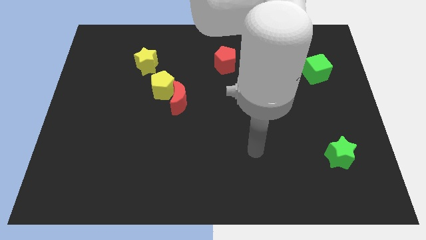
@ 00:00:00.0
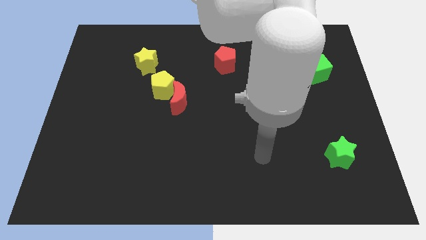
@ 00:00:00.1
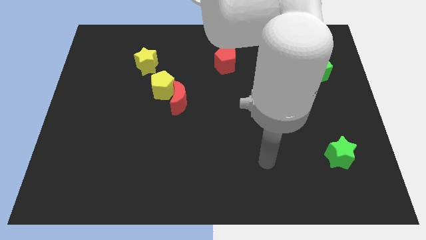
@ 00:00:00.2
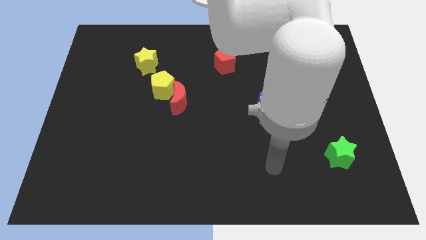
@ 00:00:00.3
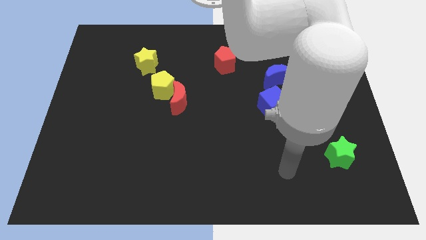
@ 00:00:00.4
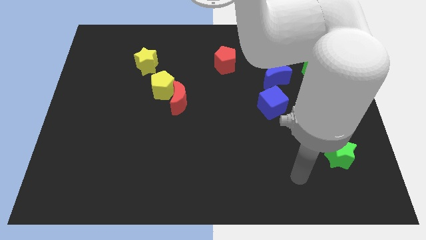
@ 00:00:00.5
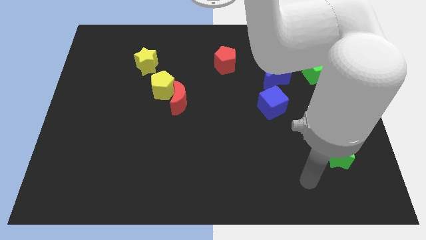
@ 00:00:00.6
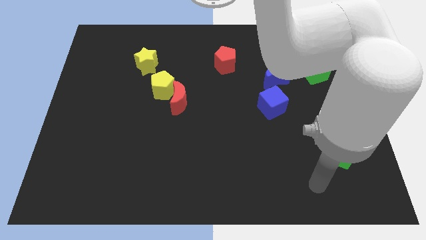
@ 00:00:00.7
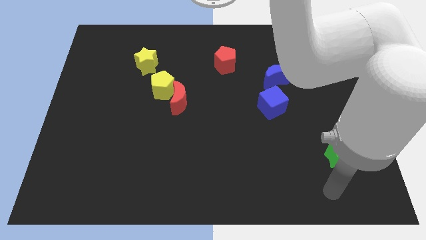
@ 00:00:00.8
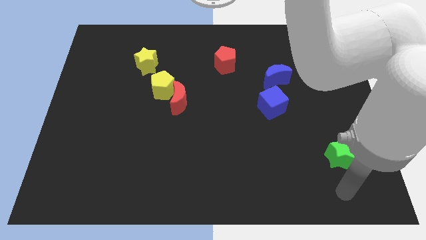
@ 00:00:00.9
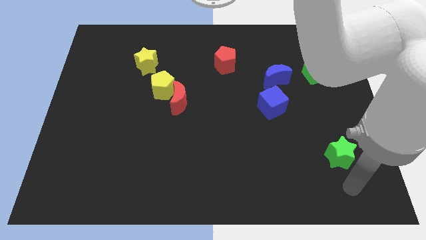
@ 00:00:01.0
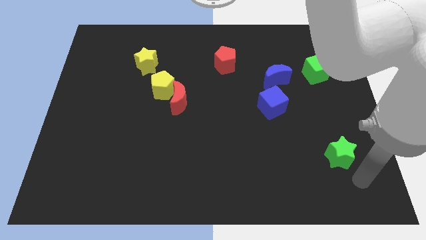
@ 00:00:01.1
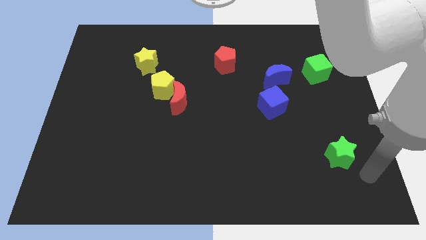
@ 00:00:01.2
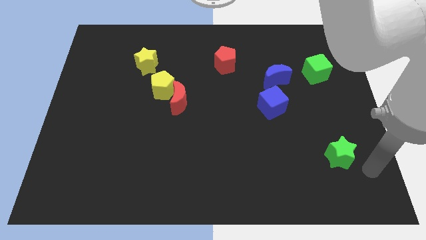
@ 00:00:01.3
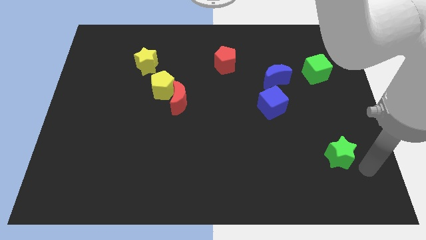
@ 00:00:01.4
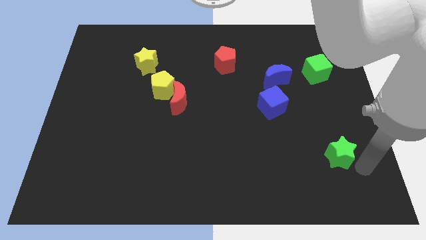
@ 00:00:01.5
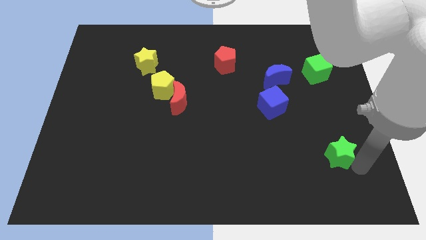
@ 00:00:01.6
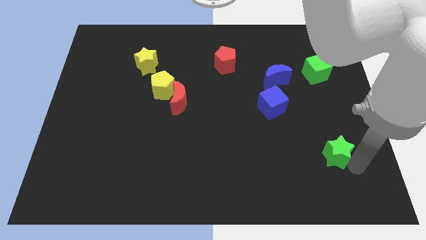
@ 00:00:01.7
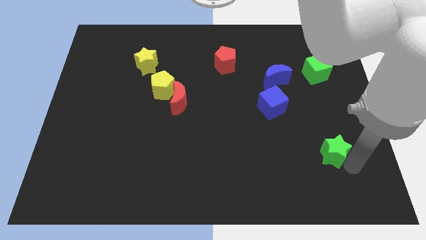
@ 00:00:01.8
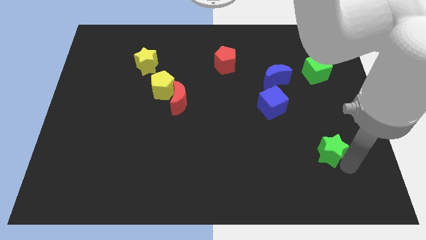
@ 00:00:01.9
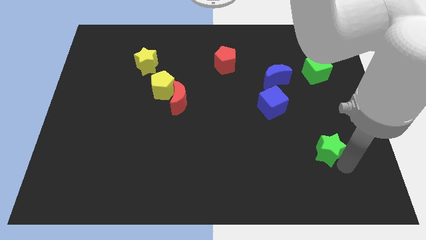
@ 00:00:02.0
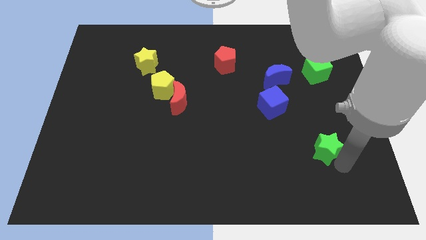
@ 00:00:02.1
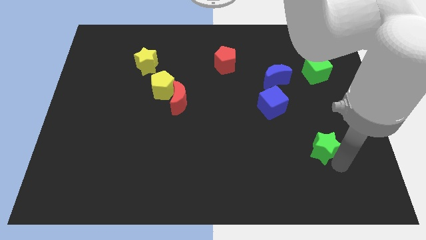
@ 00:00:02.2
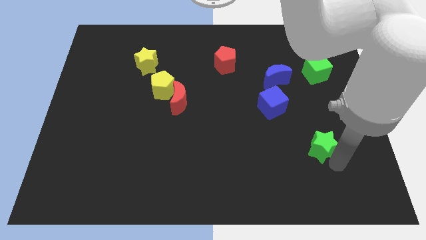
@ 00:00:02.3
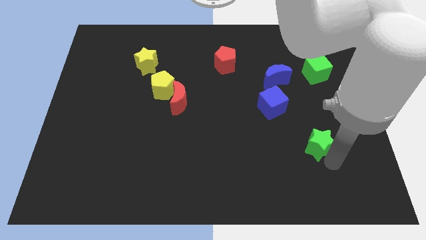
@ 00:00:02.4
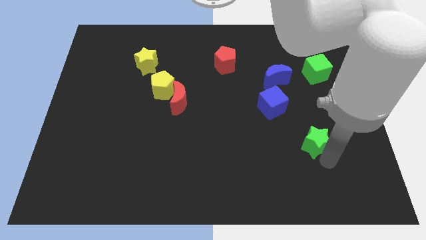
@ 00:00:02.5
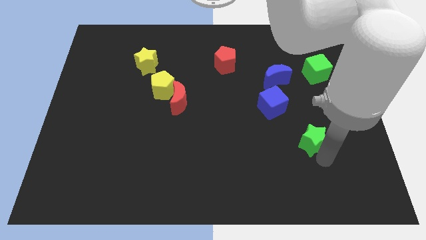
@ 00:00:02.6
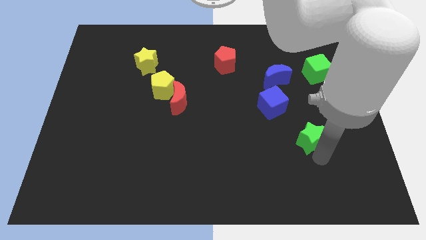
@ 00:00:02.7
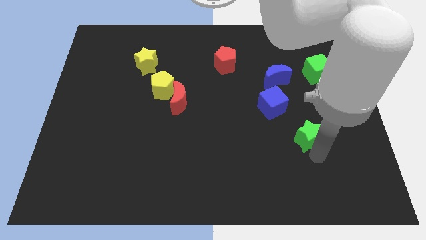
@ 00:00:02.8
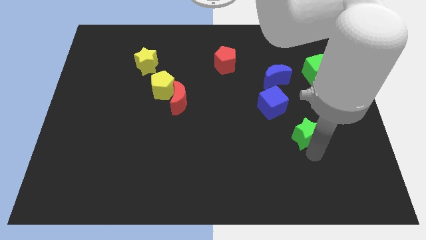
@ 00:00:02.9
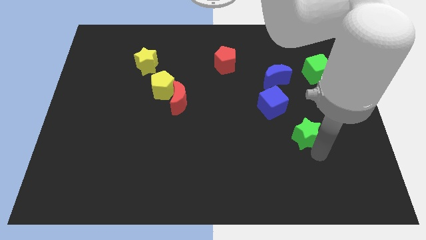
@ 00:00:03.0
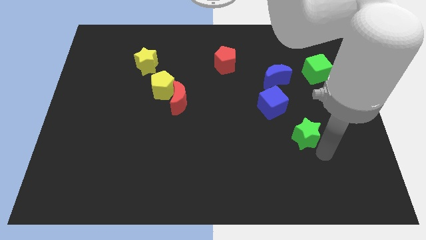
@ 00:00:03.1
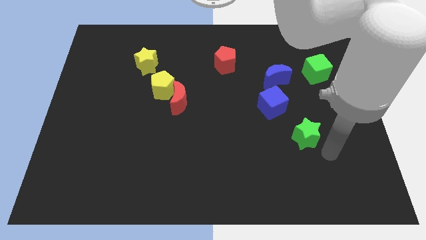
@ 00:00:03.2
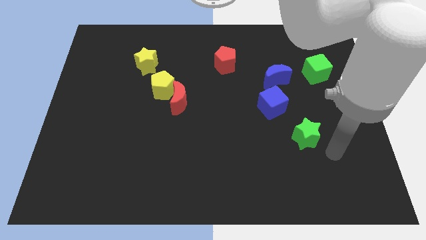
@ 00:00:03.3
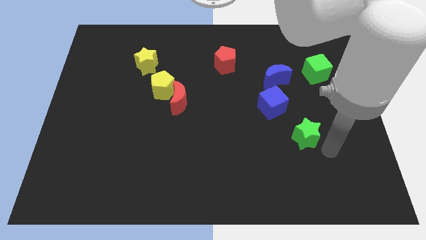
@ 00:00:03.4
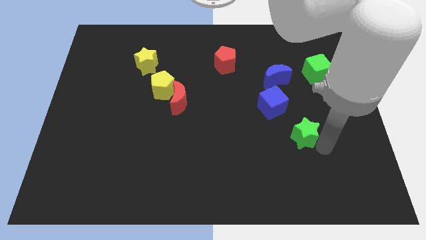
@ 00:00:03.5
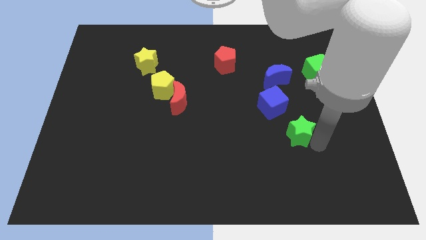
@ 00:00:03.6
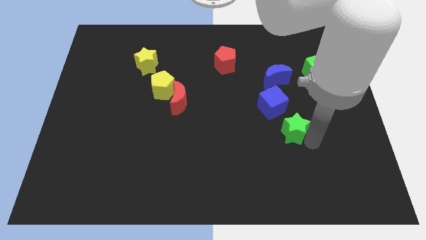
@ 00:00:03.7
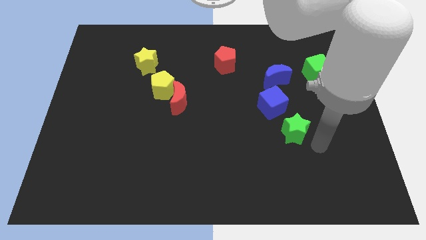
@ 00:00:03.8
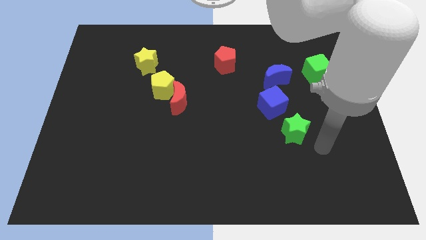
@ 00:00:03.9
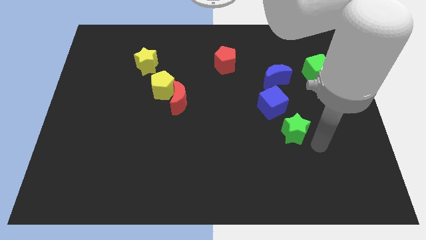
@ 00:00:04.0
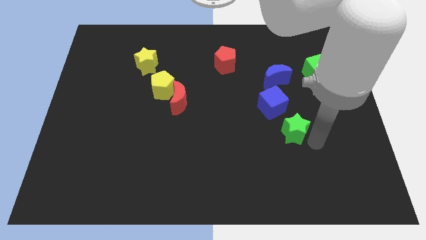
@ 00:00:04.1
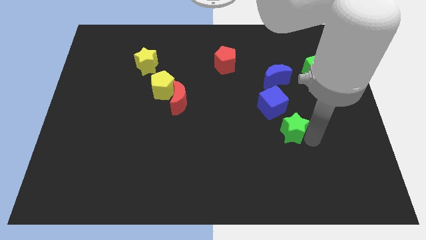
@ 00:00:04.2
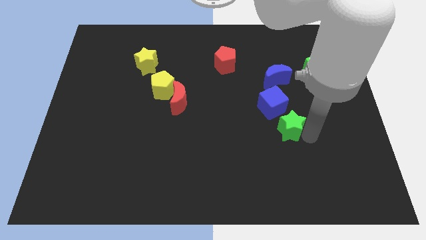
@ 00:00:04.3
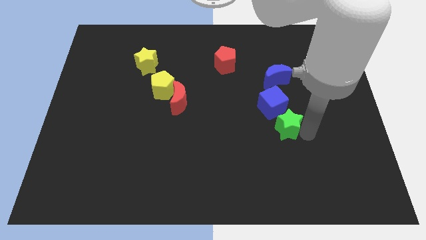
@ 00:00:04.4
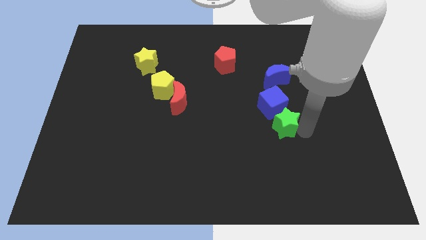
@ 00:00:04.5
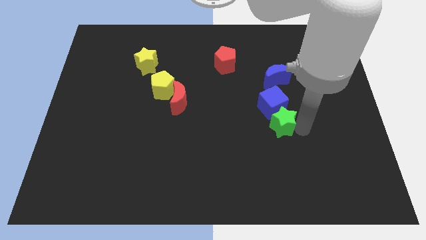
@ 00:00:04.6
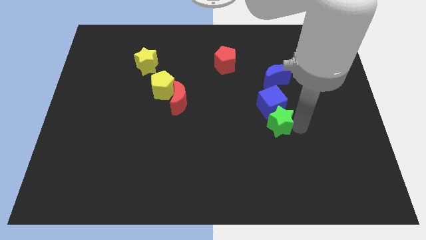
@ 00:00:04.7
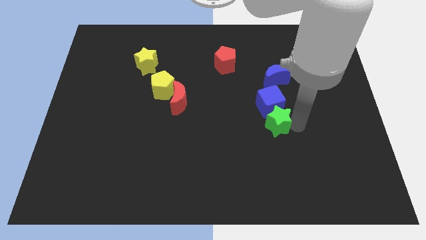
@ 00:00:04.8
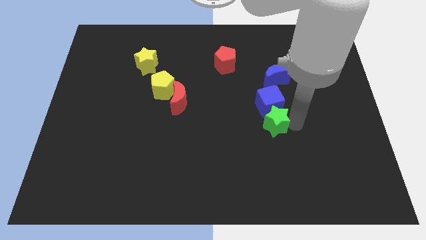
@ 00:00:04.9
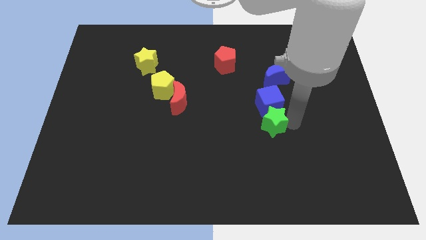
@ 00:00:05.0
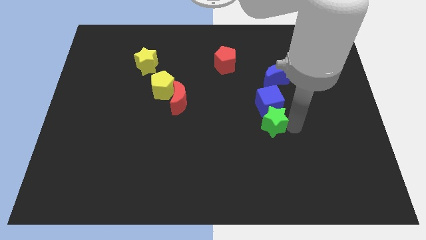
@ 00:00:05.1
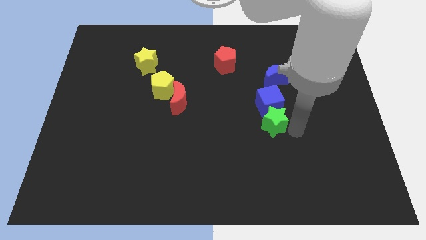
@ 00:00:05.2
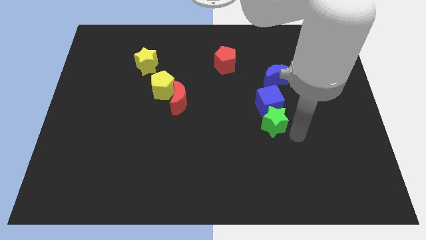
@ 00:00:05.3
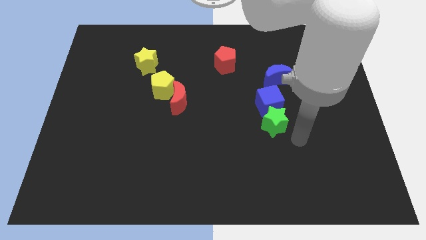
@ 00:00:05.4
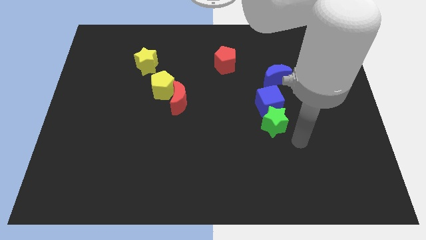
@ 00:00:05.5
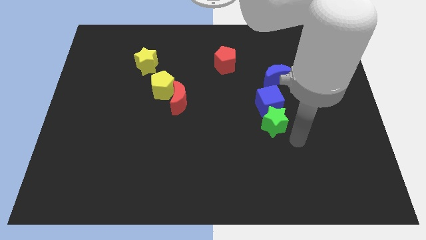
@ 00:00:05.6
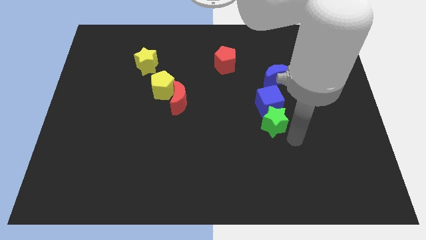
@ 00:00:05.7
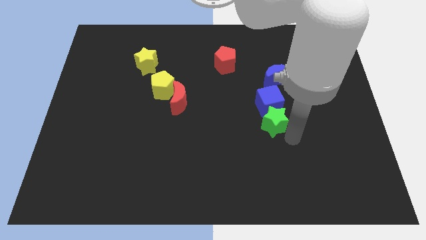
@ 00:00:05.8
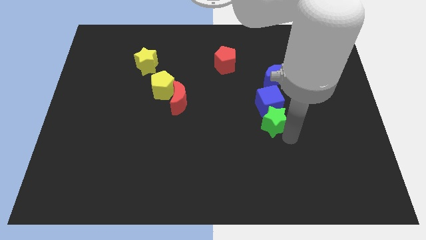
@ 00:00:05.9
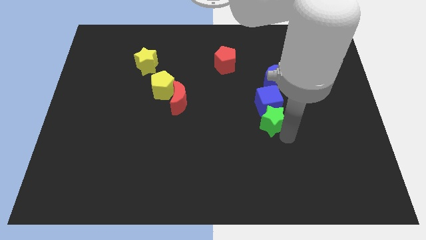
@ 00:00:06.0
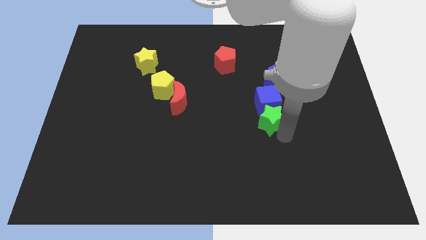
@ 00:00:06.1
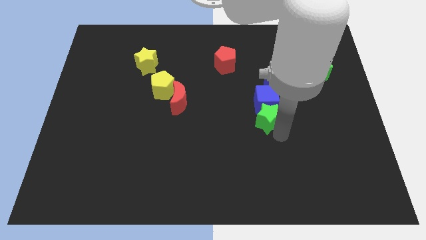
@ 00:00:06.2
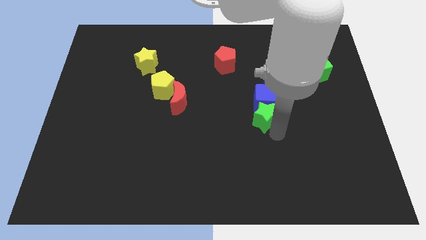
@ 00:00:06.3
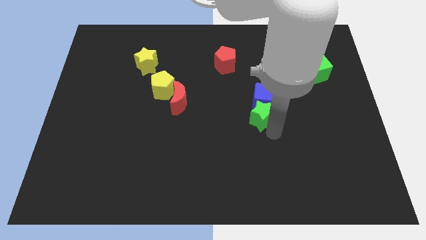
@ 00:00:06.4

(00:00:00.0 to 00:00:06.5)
push the green star to the center of the board
